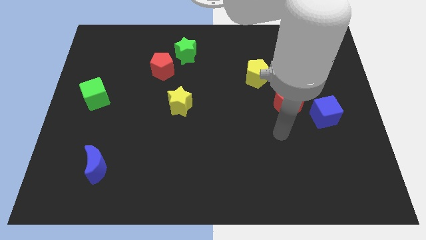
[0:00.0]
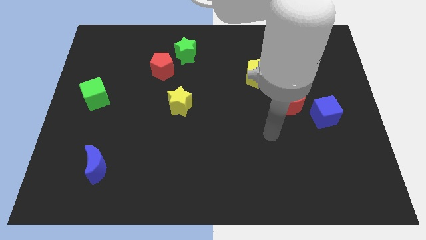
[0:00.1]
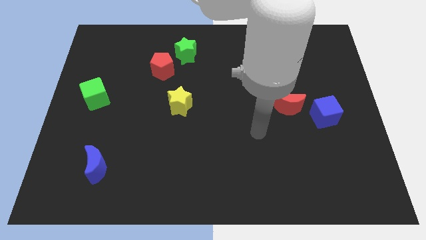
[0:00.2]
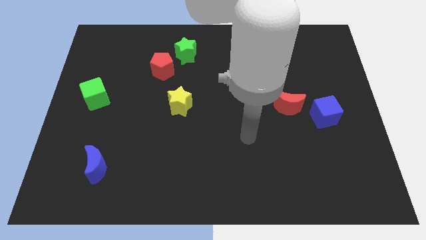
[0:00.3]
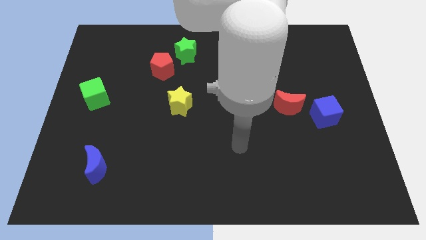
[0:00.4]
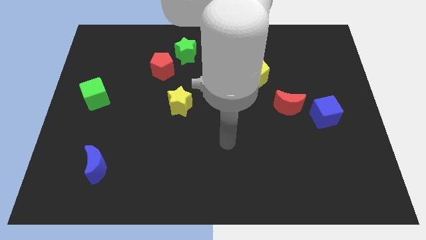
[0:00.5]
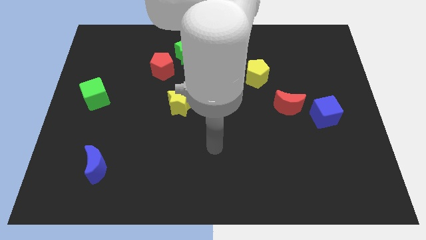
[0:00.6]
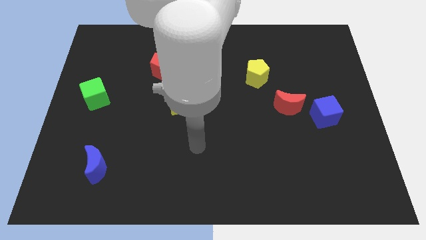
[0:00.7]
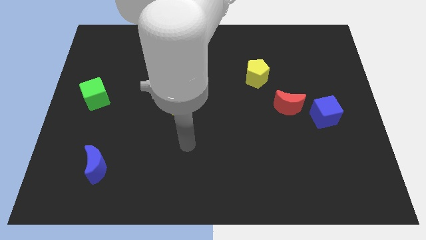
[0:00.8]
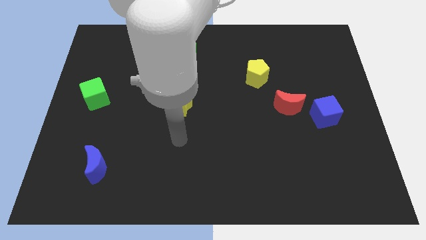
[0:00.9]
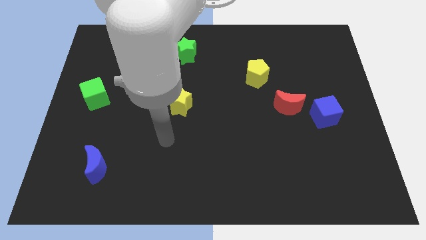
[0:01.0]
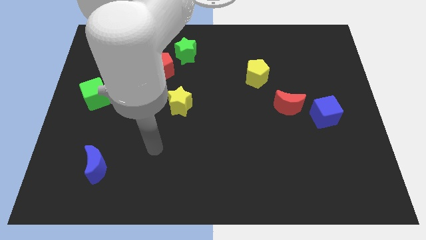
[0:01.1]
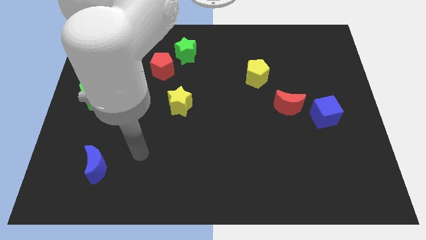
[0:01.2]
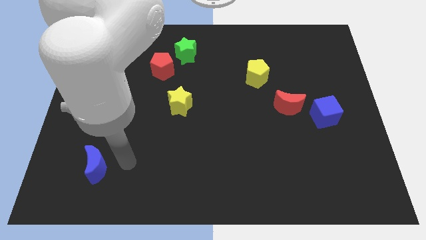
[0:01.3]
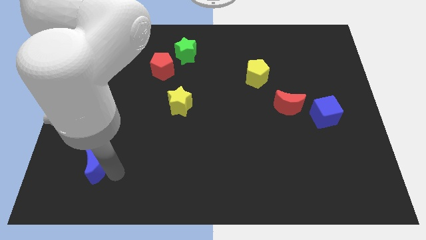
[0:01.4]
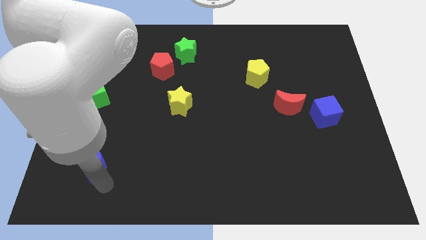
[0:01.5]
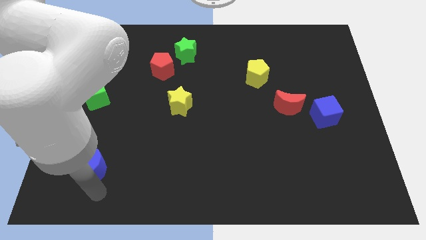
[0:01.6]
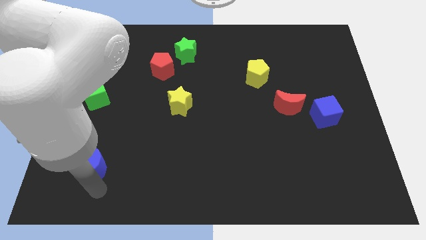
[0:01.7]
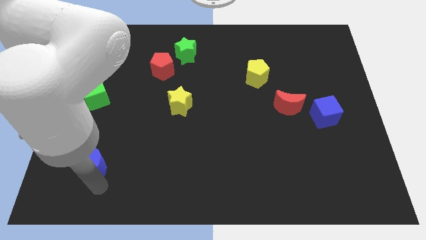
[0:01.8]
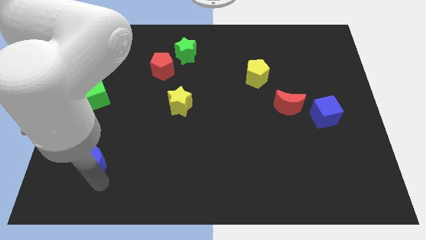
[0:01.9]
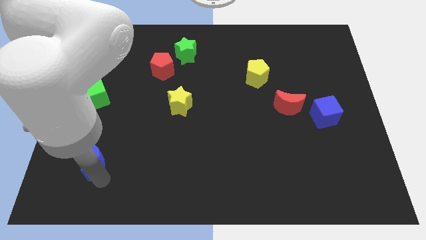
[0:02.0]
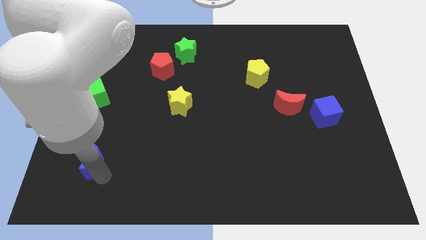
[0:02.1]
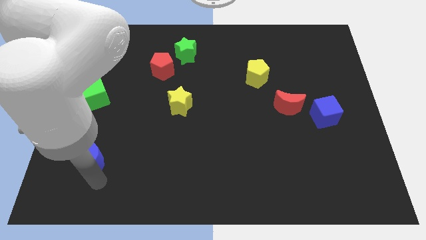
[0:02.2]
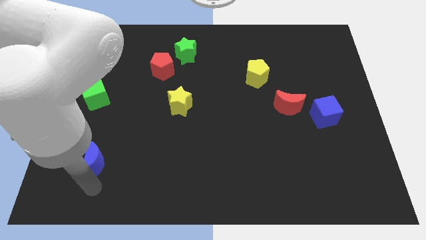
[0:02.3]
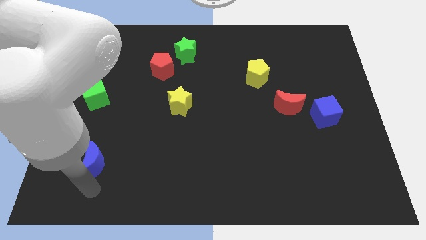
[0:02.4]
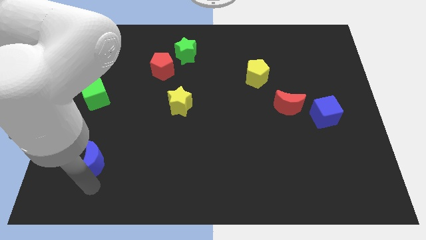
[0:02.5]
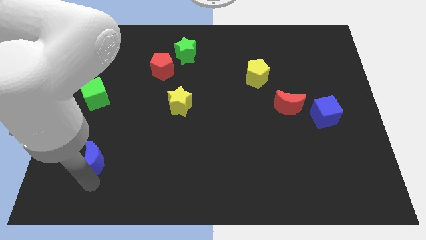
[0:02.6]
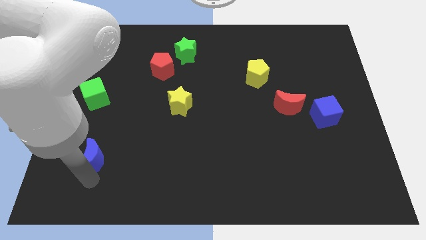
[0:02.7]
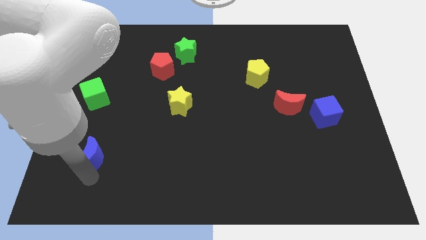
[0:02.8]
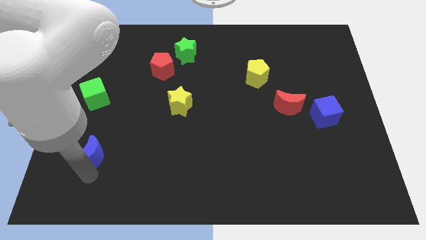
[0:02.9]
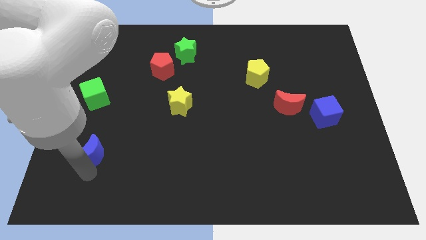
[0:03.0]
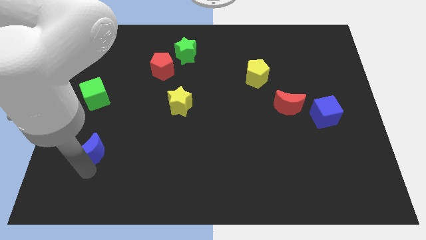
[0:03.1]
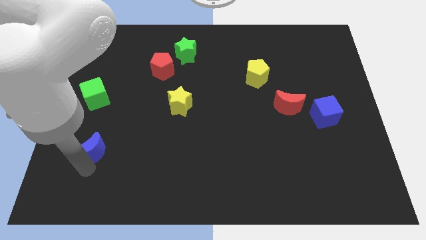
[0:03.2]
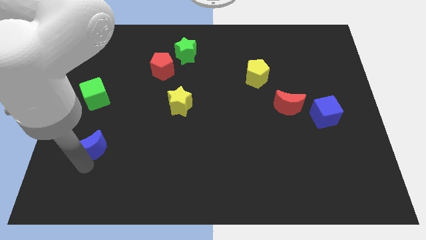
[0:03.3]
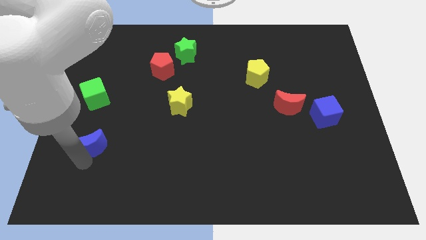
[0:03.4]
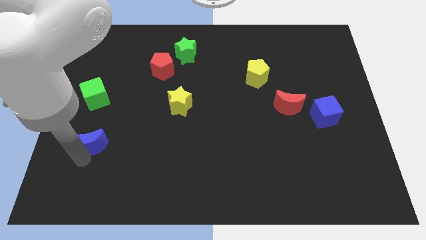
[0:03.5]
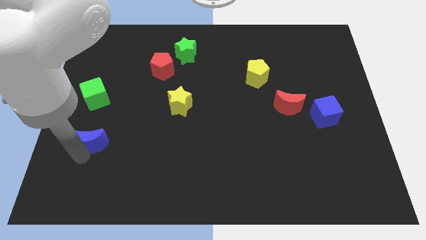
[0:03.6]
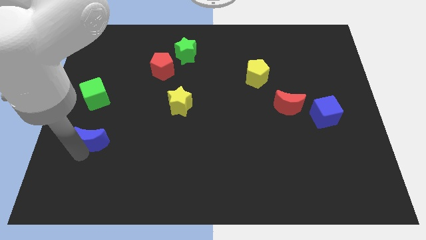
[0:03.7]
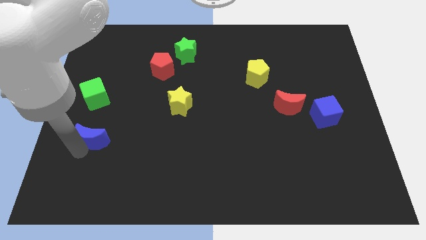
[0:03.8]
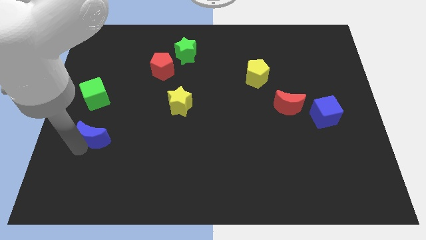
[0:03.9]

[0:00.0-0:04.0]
slightly push the blue moon upwards

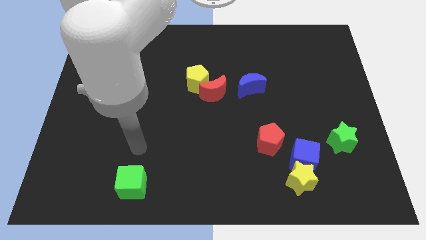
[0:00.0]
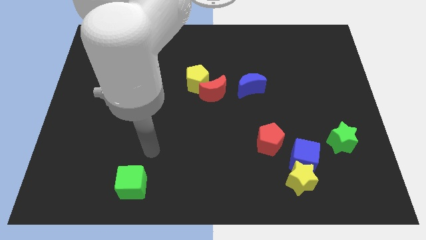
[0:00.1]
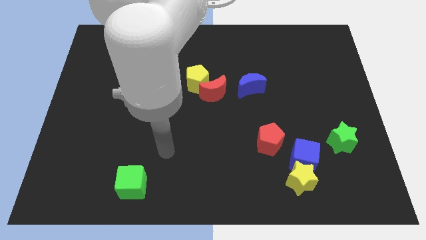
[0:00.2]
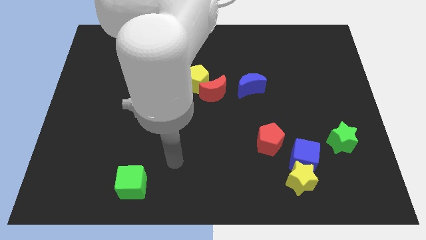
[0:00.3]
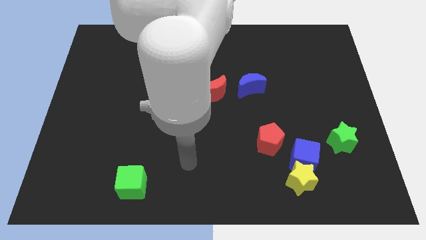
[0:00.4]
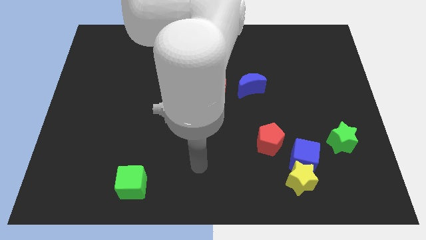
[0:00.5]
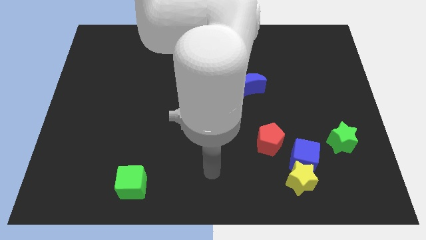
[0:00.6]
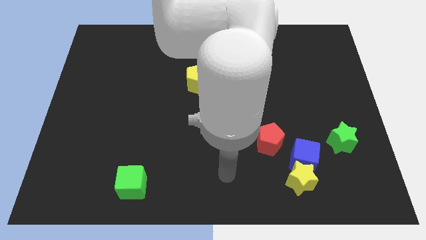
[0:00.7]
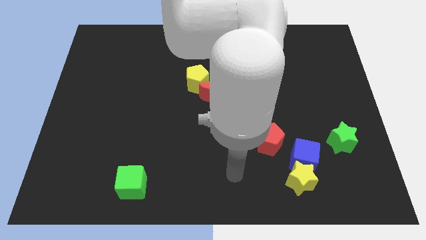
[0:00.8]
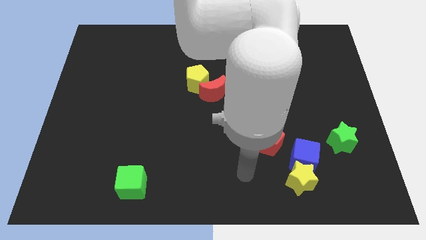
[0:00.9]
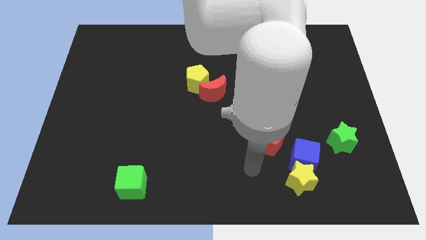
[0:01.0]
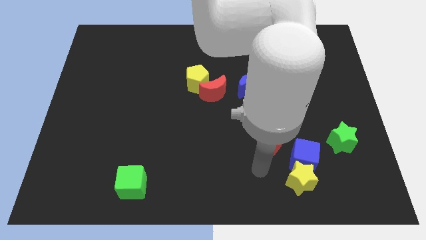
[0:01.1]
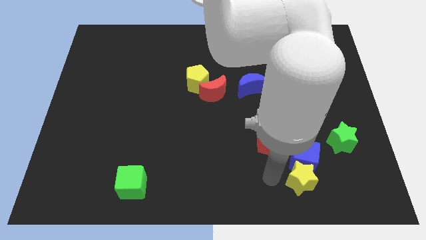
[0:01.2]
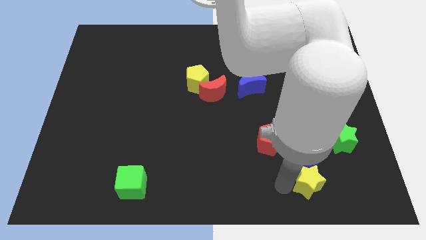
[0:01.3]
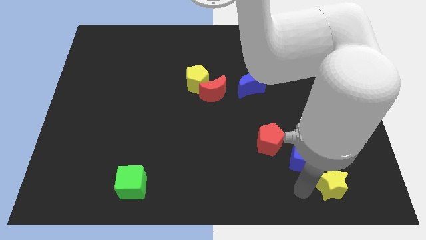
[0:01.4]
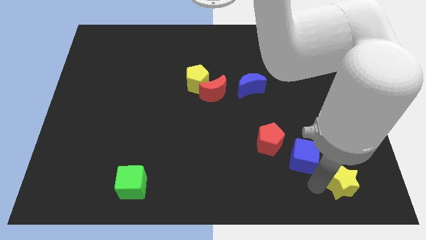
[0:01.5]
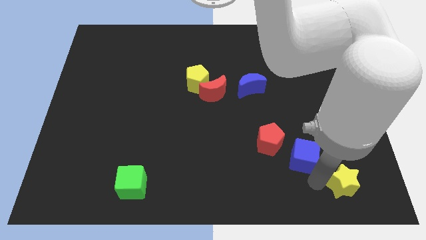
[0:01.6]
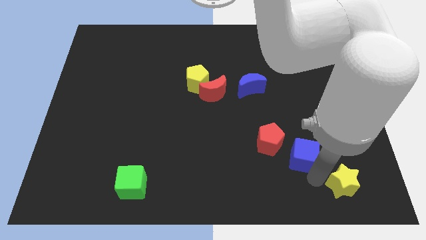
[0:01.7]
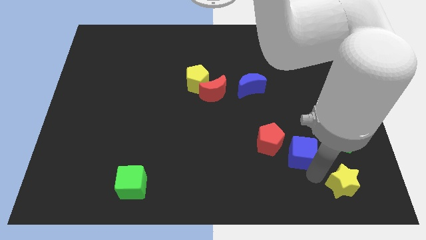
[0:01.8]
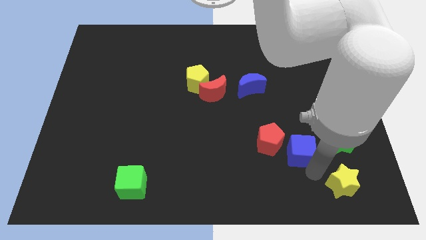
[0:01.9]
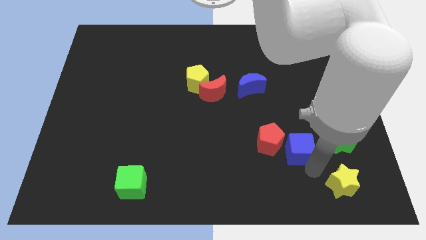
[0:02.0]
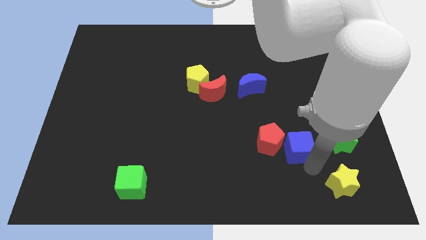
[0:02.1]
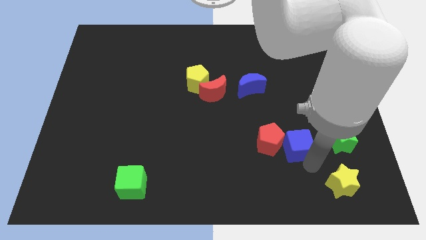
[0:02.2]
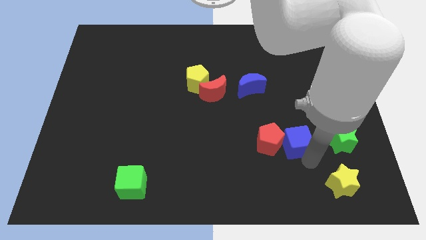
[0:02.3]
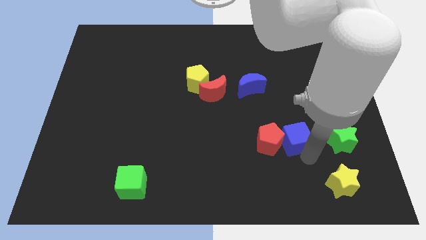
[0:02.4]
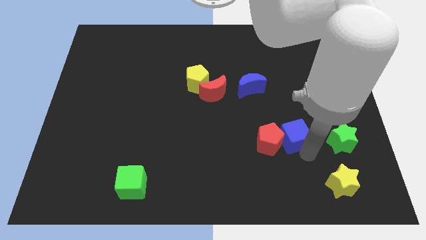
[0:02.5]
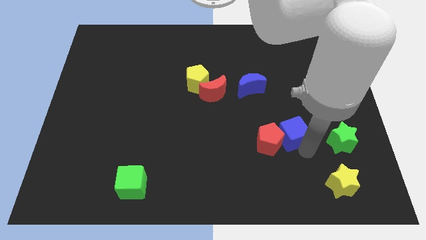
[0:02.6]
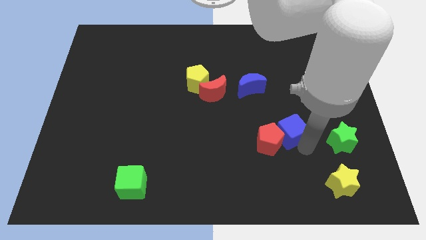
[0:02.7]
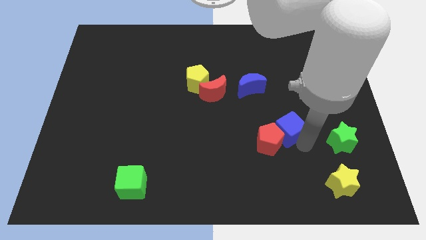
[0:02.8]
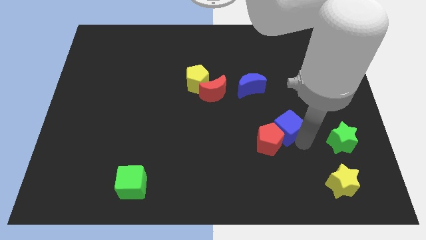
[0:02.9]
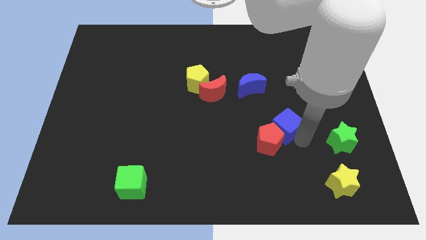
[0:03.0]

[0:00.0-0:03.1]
slightly slide the blue cube upwards and then left

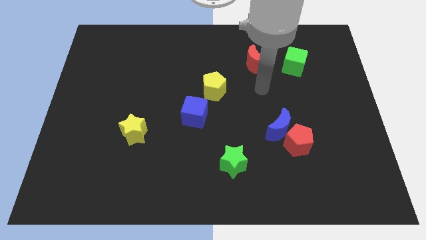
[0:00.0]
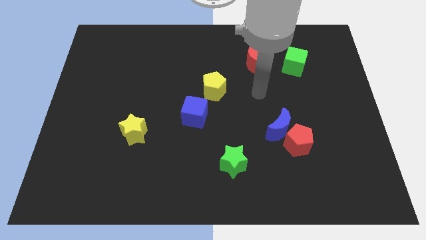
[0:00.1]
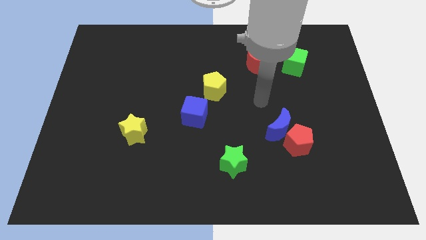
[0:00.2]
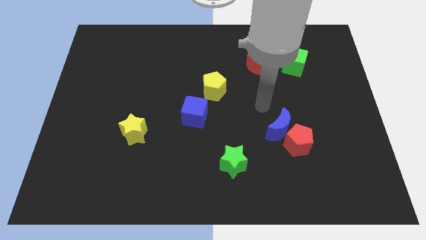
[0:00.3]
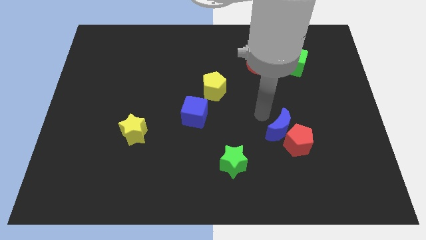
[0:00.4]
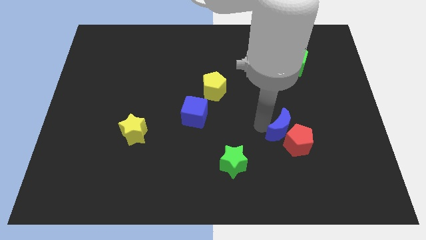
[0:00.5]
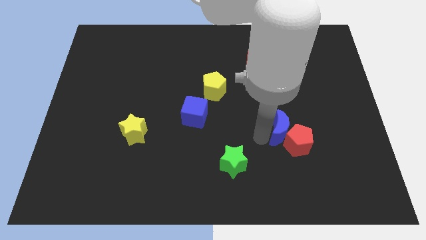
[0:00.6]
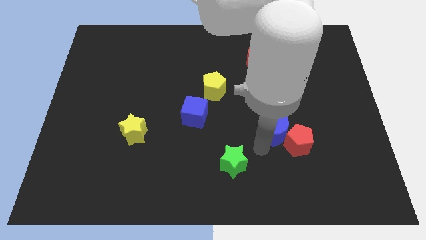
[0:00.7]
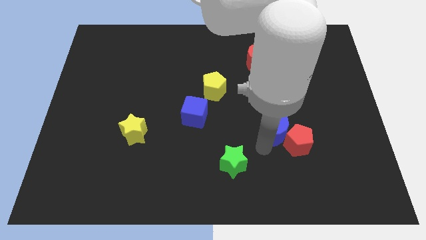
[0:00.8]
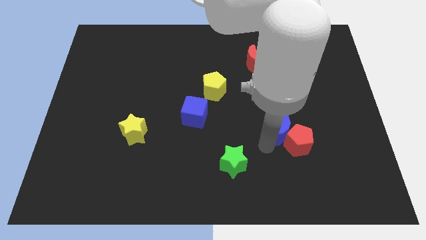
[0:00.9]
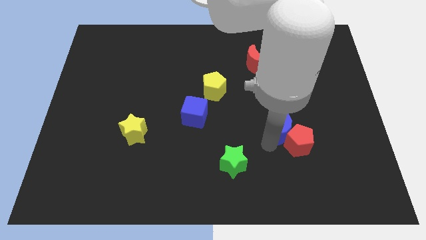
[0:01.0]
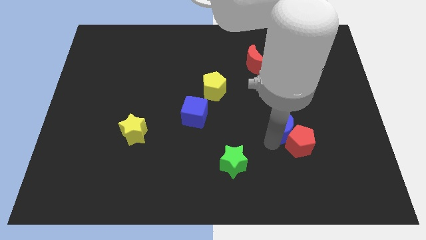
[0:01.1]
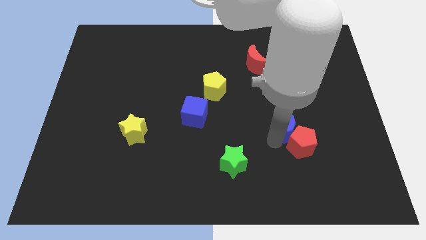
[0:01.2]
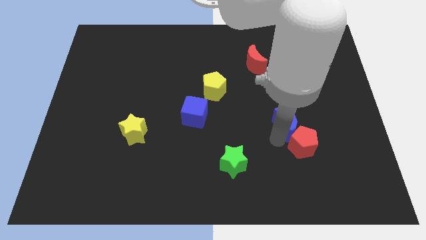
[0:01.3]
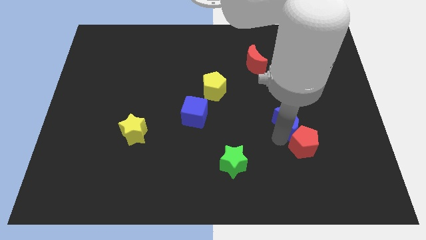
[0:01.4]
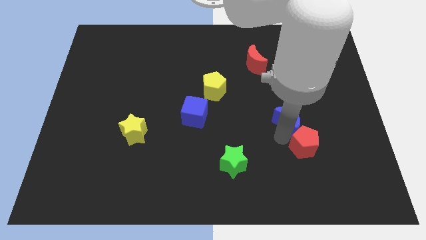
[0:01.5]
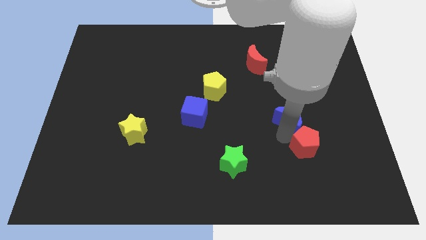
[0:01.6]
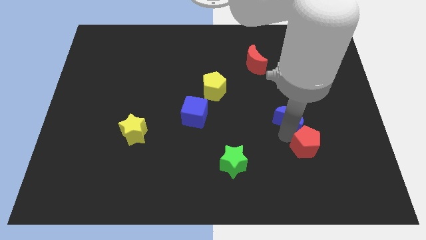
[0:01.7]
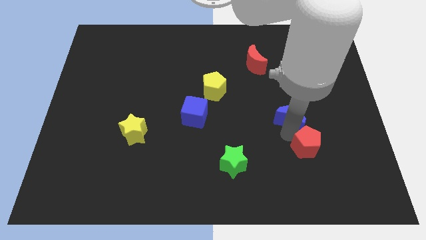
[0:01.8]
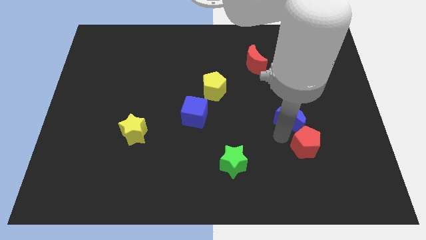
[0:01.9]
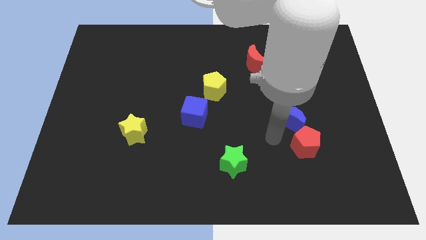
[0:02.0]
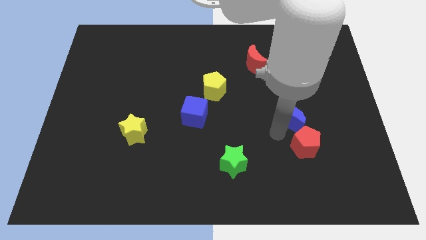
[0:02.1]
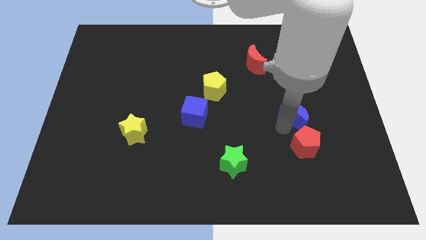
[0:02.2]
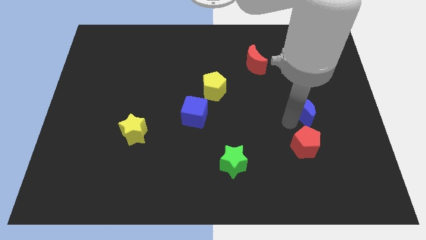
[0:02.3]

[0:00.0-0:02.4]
slightly push the blue moon diagonally upwards and to the right
